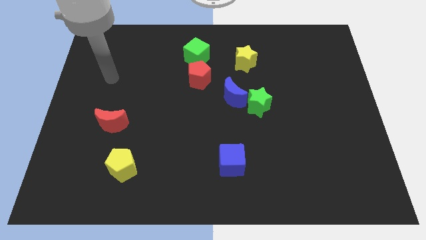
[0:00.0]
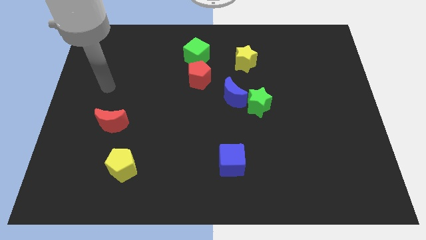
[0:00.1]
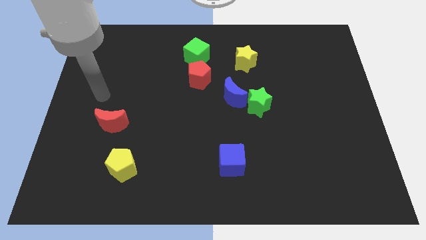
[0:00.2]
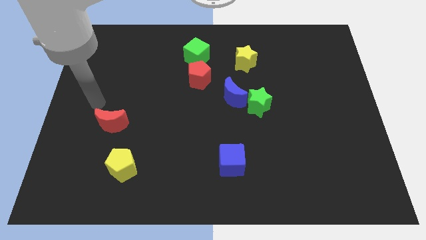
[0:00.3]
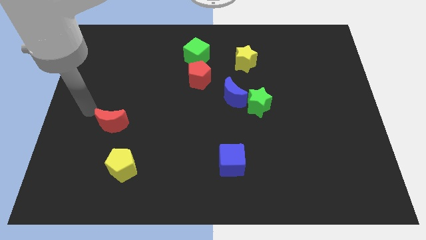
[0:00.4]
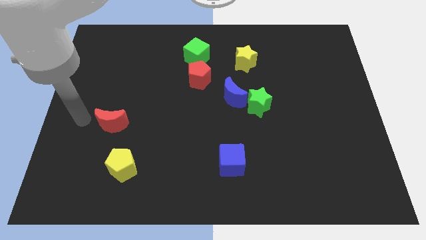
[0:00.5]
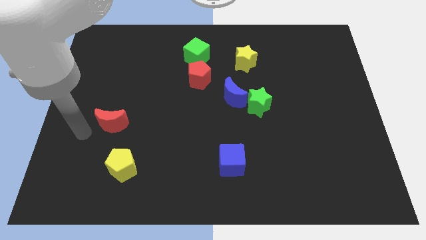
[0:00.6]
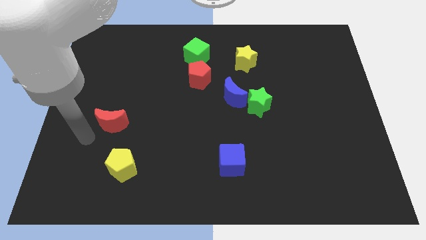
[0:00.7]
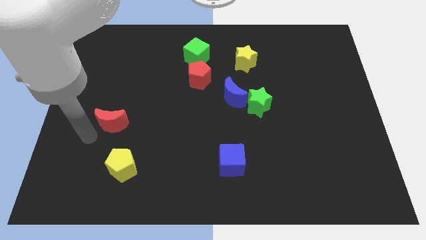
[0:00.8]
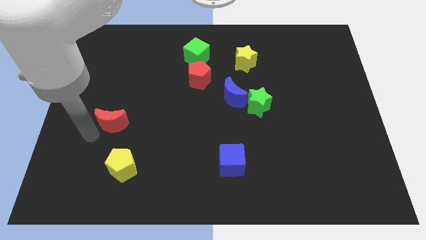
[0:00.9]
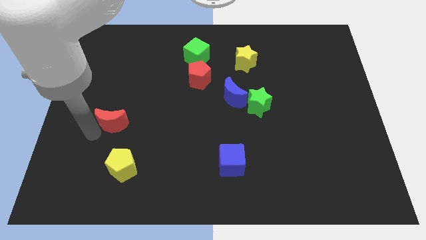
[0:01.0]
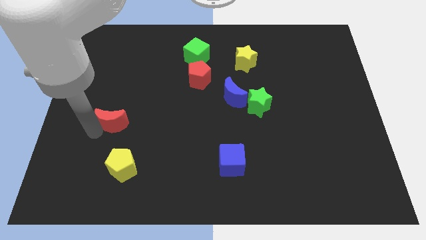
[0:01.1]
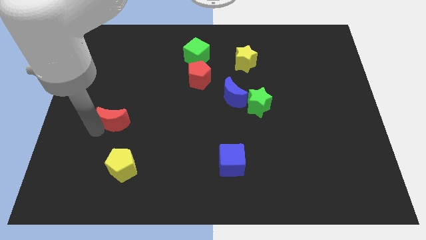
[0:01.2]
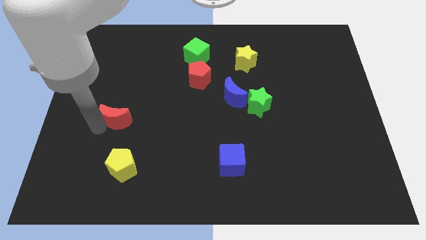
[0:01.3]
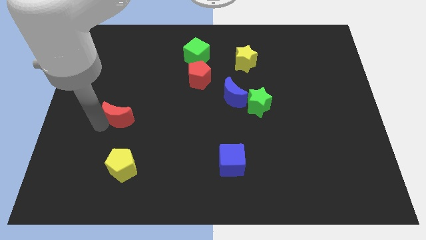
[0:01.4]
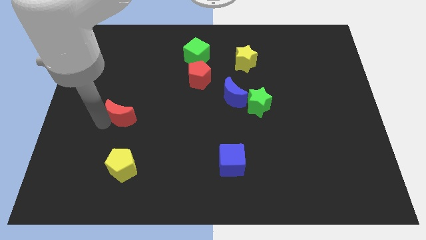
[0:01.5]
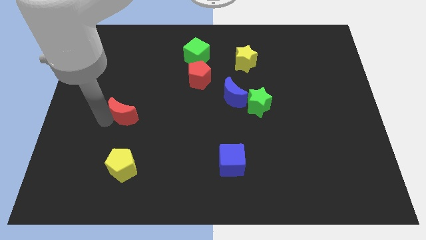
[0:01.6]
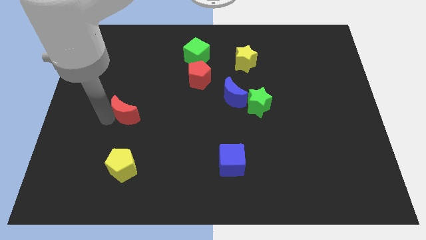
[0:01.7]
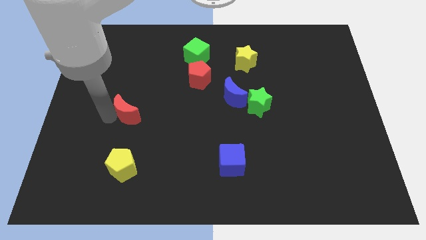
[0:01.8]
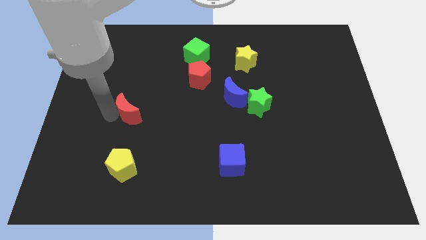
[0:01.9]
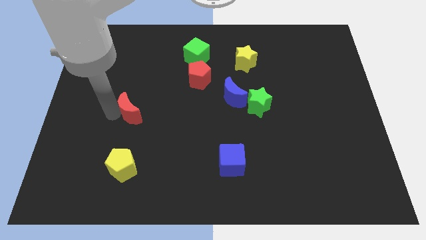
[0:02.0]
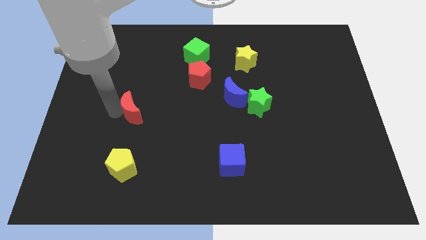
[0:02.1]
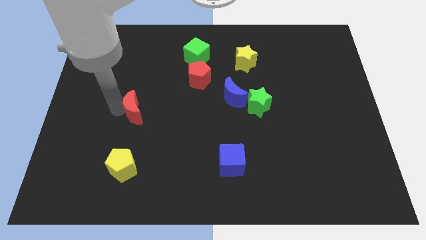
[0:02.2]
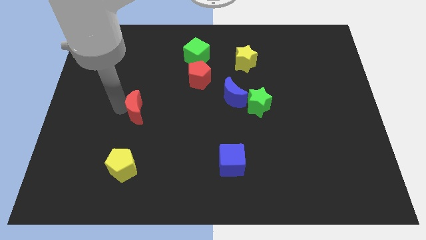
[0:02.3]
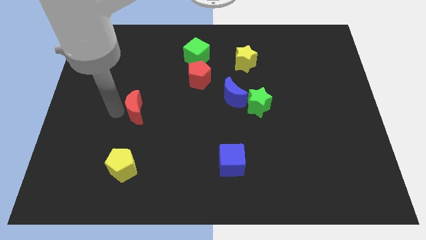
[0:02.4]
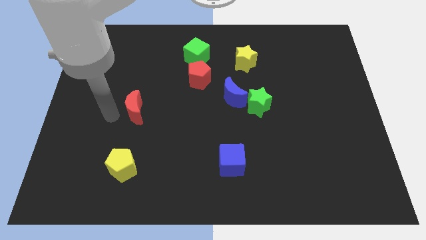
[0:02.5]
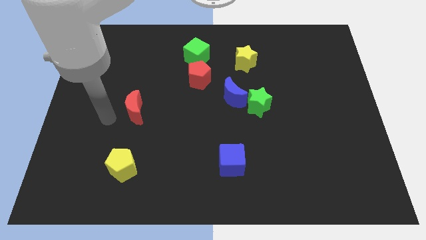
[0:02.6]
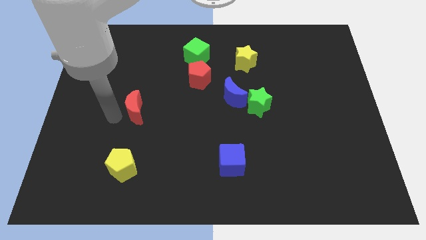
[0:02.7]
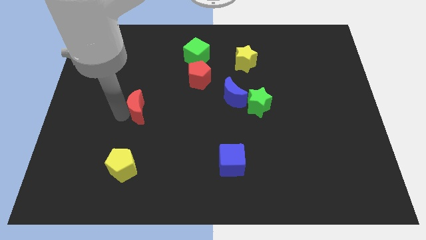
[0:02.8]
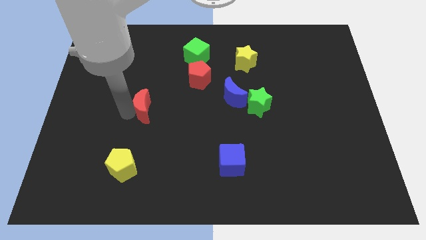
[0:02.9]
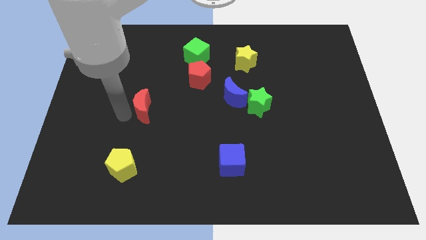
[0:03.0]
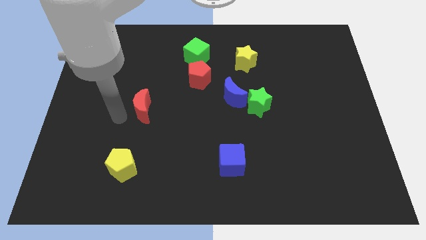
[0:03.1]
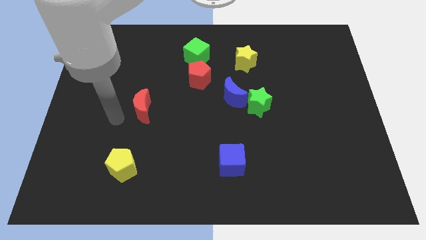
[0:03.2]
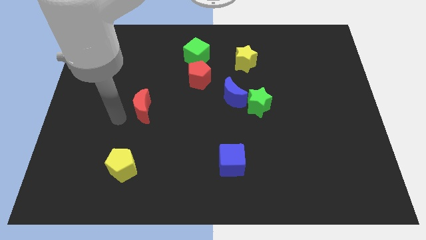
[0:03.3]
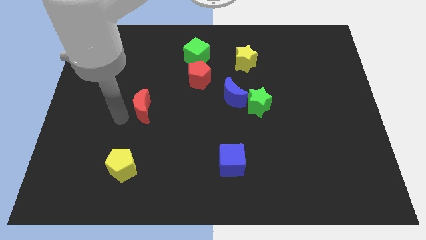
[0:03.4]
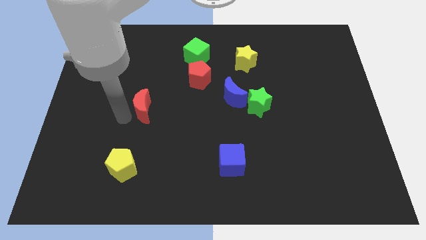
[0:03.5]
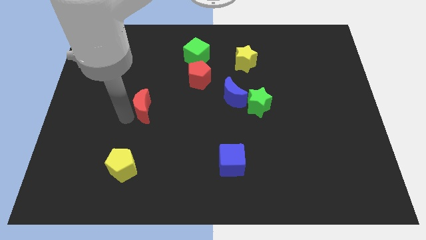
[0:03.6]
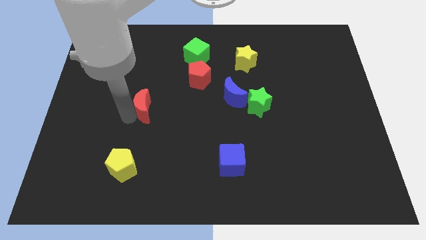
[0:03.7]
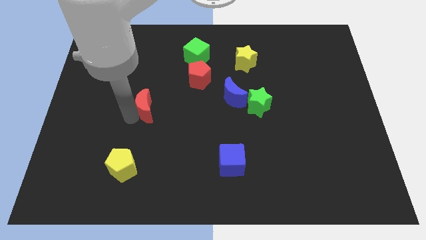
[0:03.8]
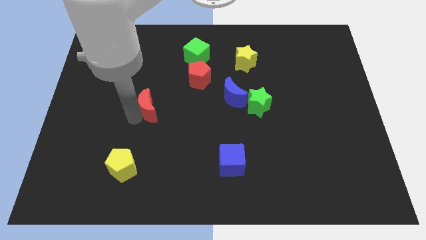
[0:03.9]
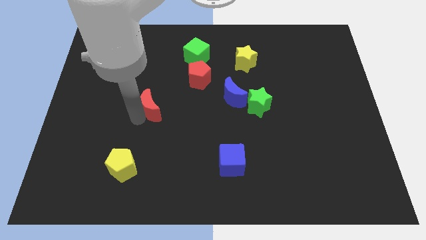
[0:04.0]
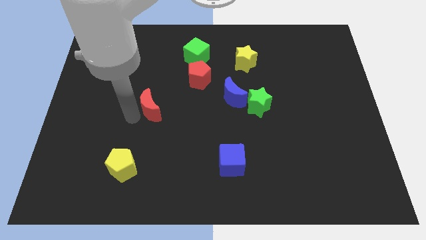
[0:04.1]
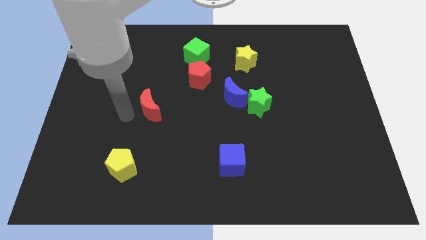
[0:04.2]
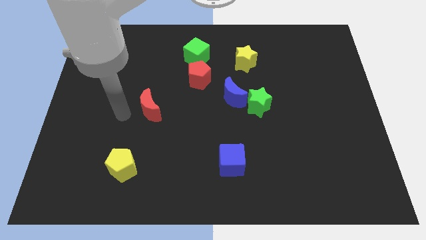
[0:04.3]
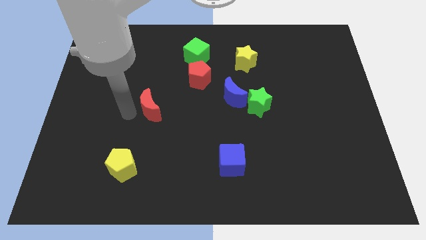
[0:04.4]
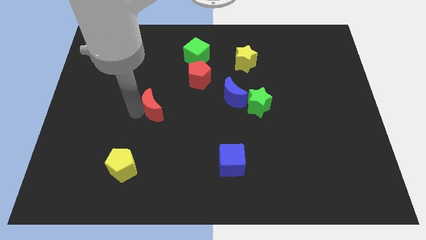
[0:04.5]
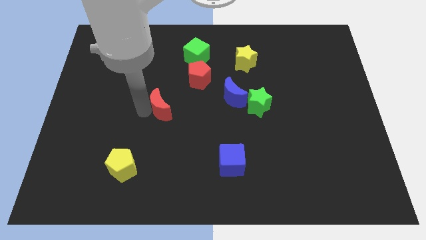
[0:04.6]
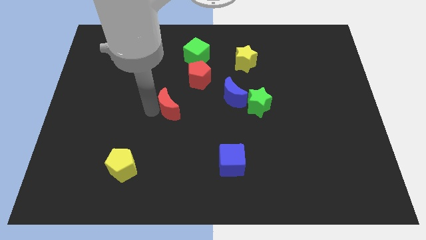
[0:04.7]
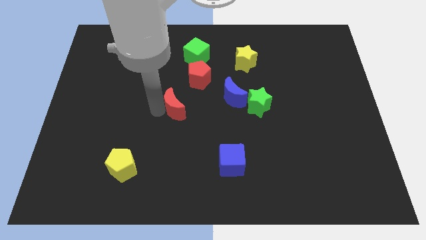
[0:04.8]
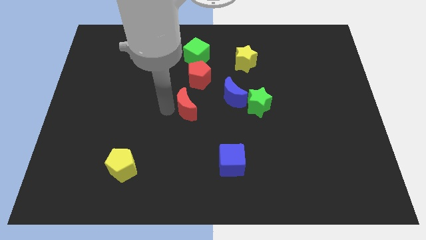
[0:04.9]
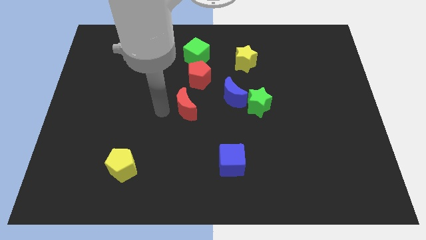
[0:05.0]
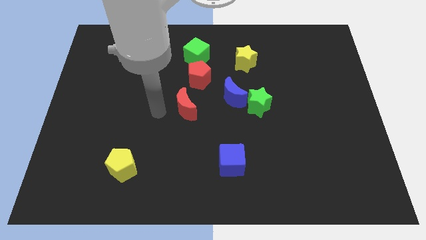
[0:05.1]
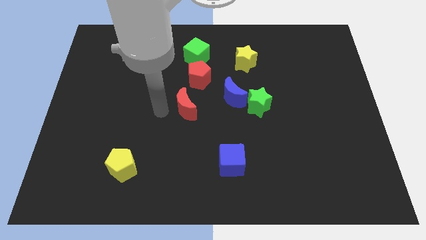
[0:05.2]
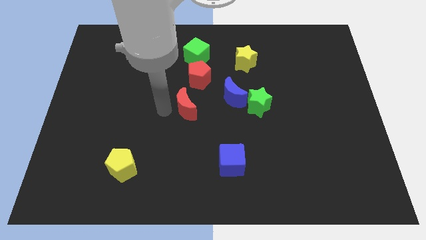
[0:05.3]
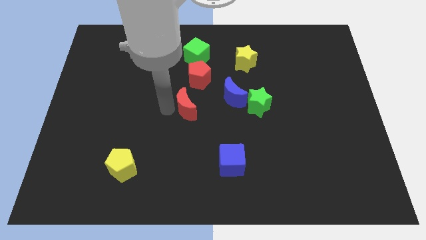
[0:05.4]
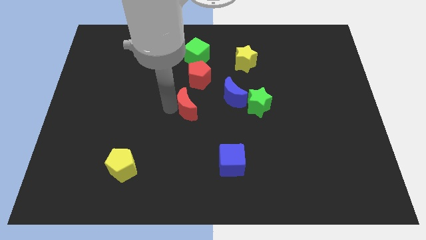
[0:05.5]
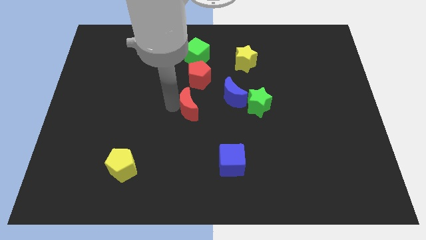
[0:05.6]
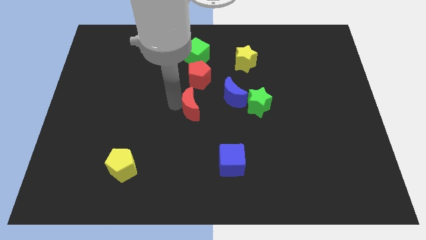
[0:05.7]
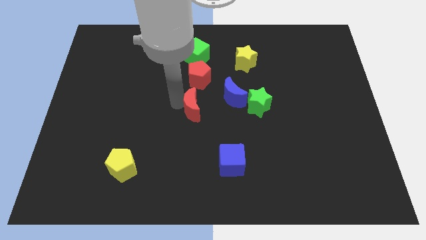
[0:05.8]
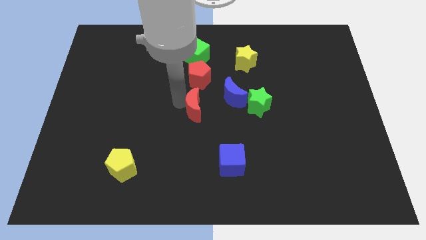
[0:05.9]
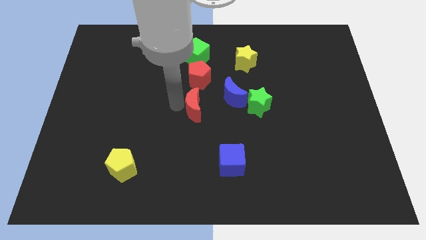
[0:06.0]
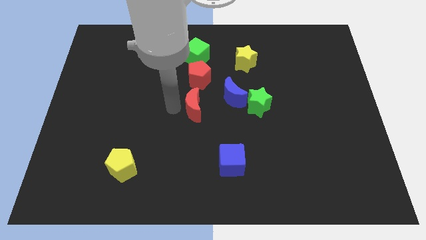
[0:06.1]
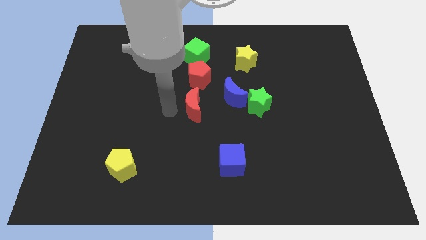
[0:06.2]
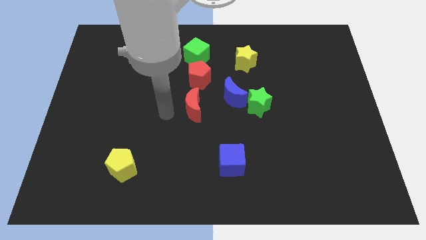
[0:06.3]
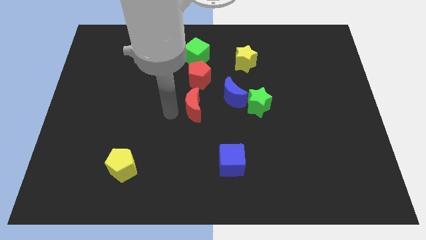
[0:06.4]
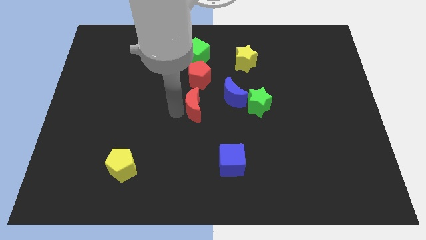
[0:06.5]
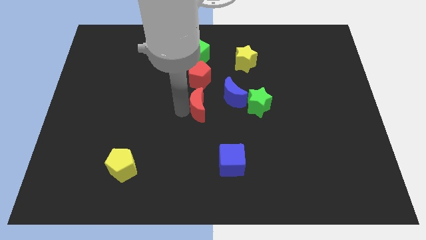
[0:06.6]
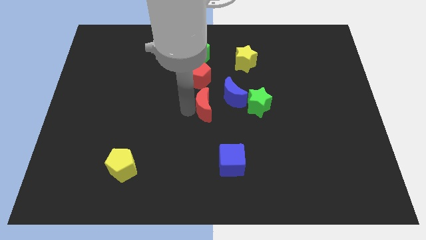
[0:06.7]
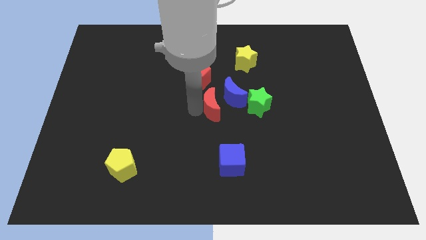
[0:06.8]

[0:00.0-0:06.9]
move the red moon close to the blue moon

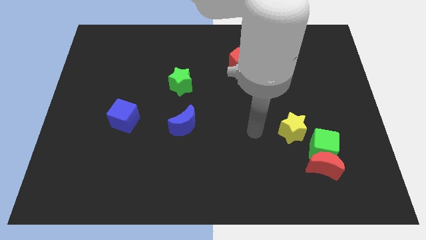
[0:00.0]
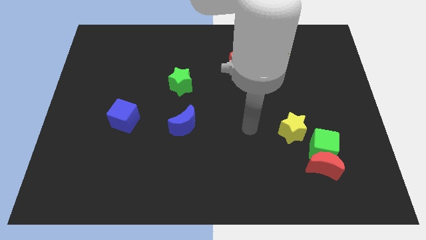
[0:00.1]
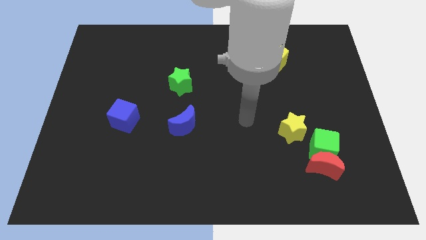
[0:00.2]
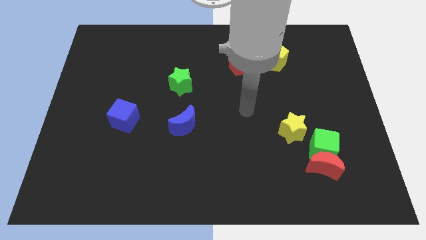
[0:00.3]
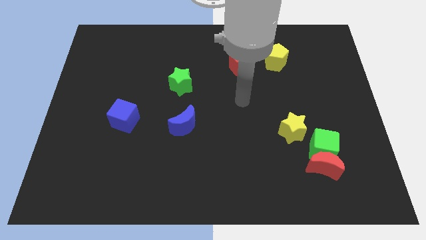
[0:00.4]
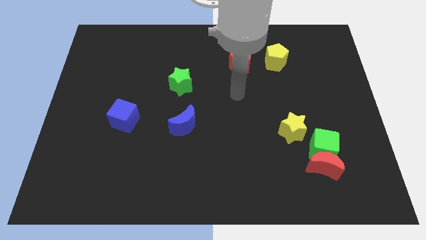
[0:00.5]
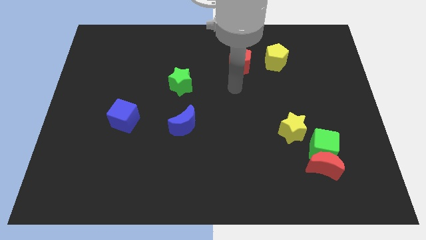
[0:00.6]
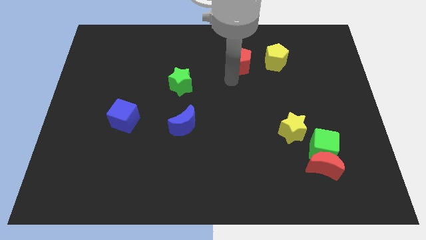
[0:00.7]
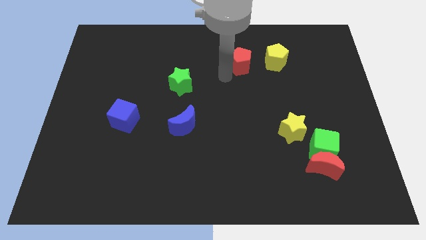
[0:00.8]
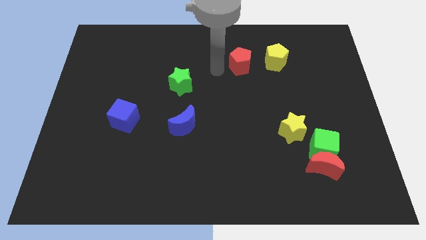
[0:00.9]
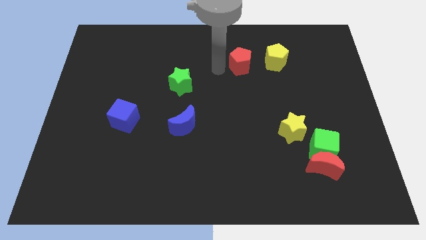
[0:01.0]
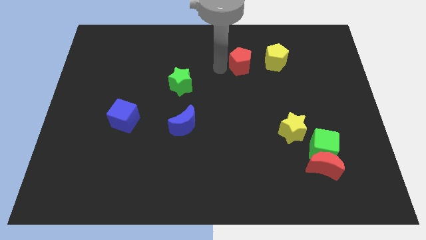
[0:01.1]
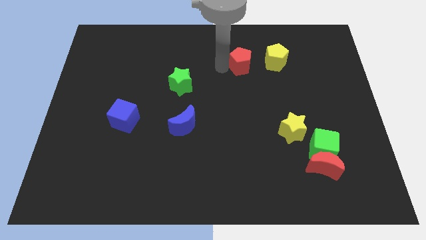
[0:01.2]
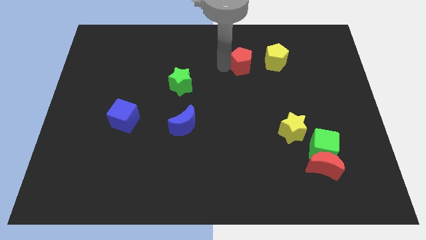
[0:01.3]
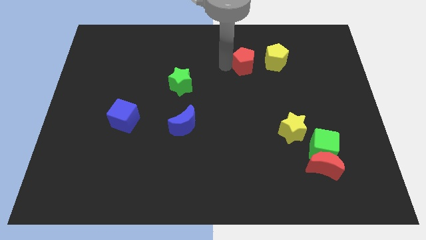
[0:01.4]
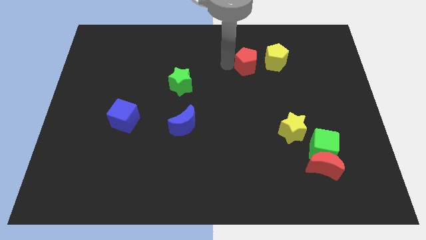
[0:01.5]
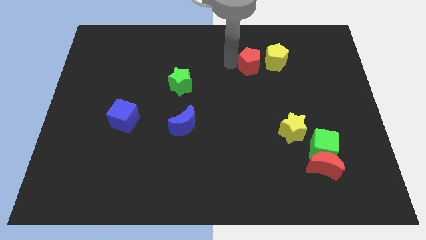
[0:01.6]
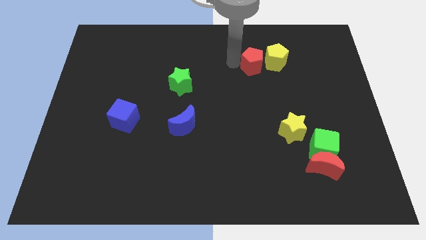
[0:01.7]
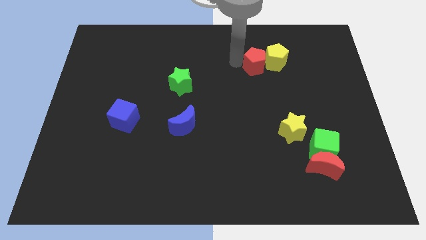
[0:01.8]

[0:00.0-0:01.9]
move the red pentagon close to the yellow pentagon
